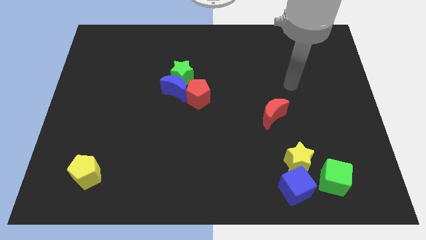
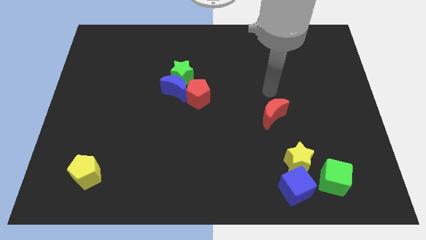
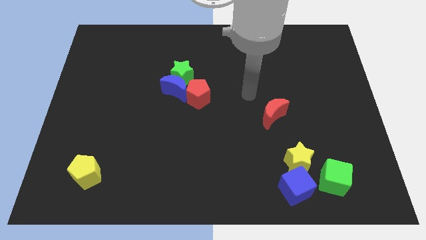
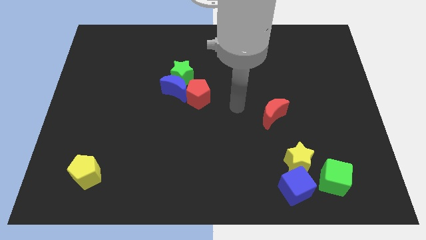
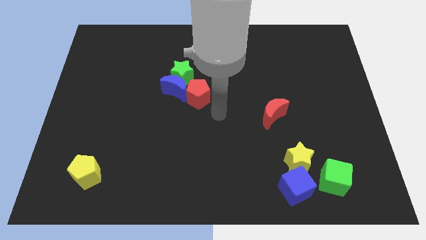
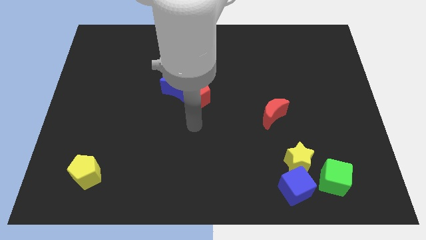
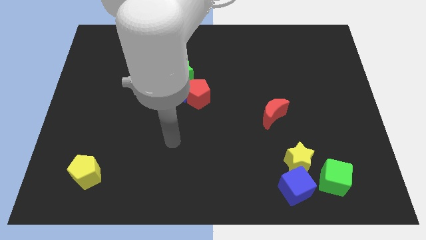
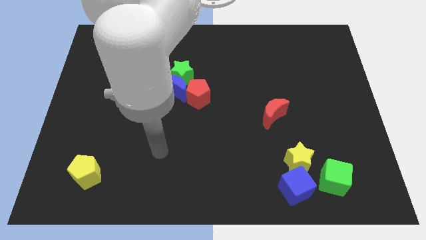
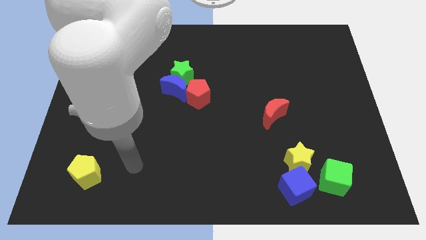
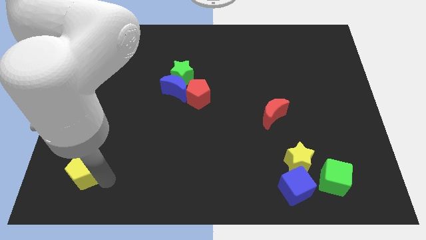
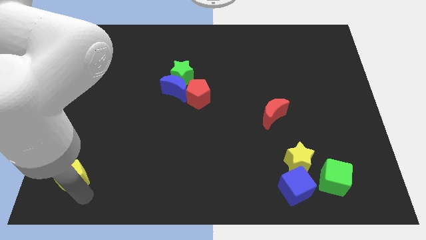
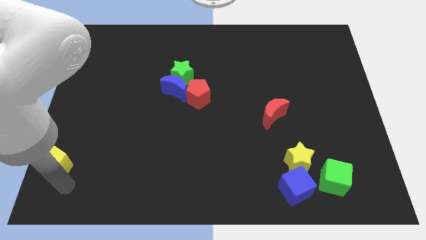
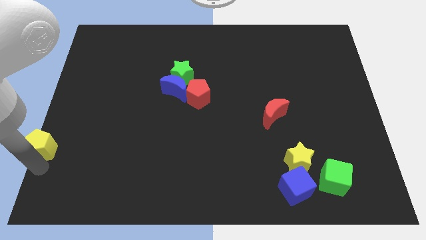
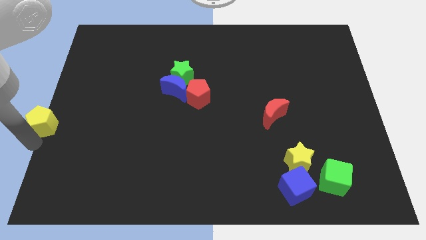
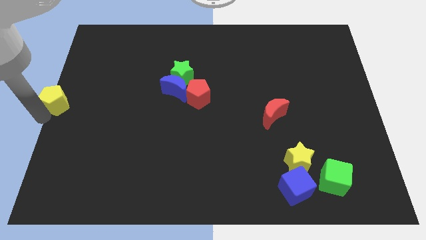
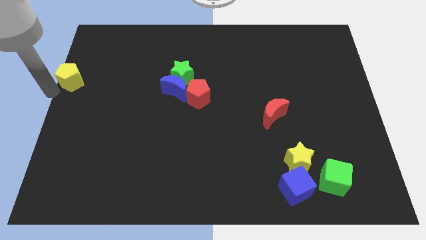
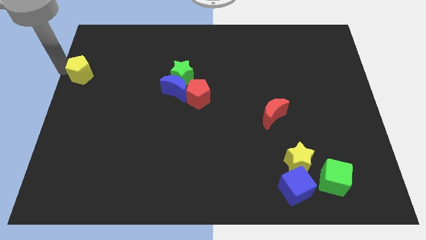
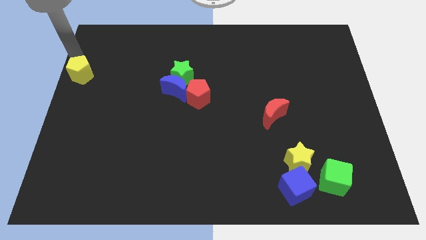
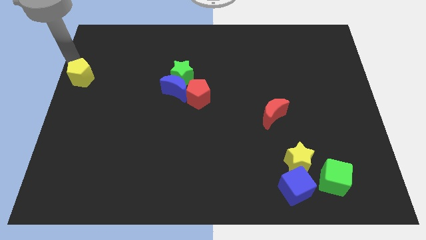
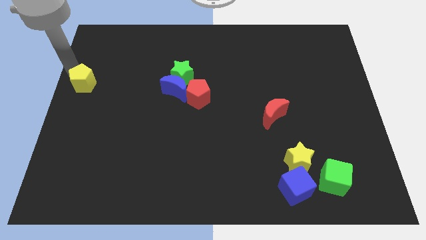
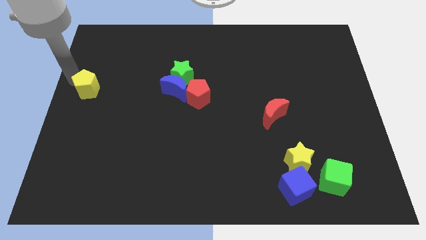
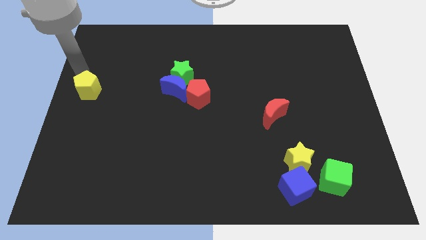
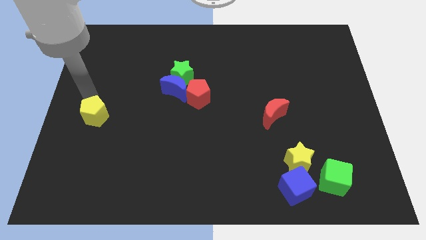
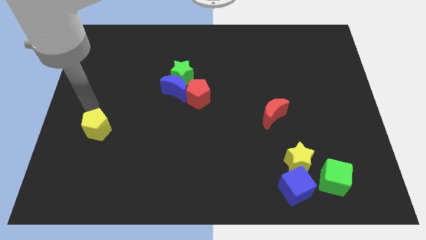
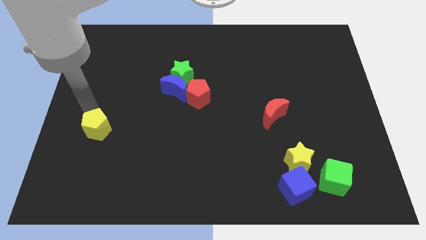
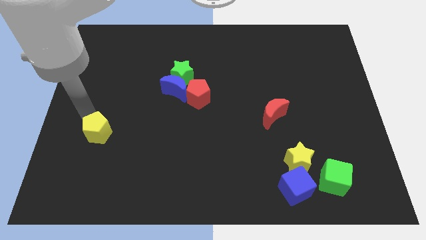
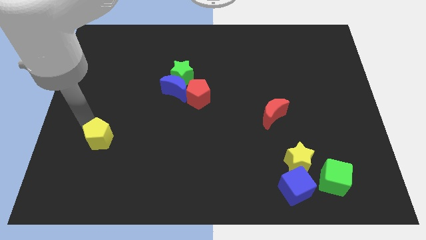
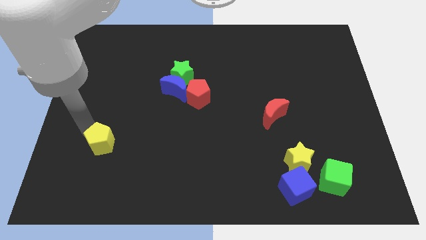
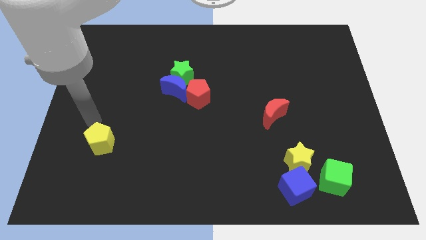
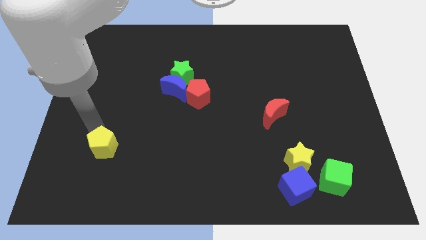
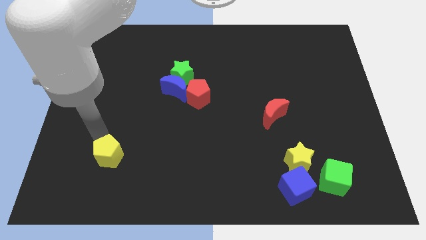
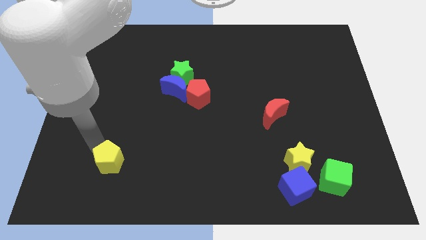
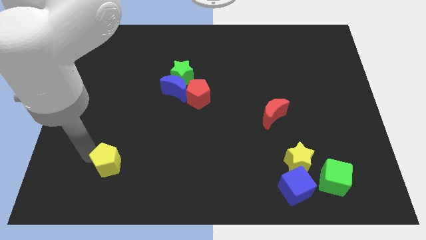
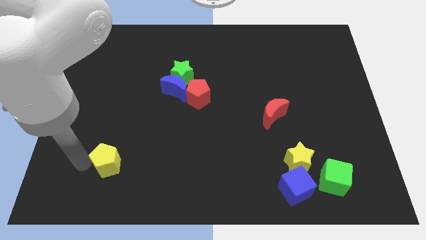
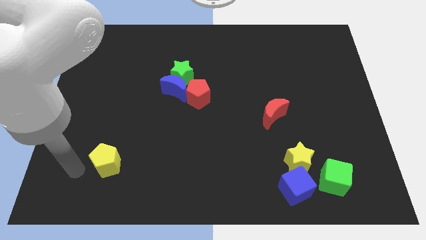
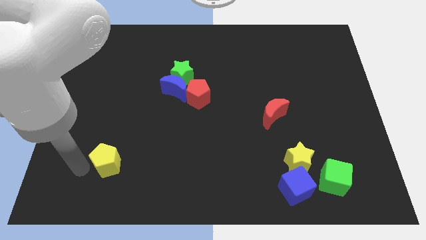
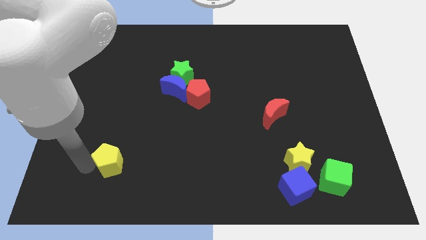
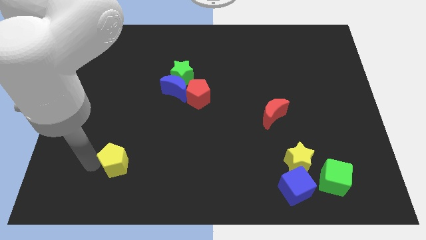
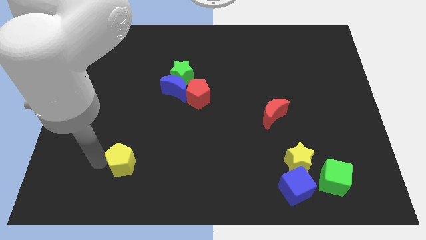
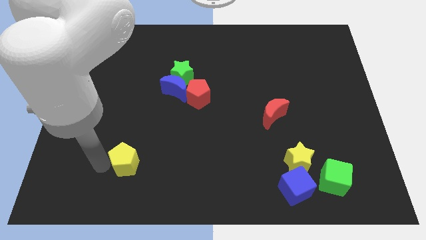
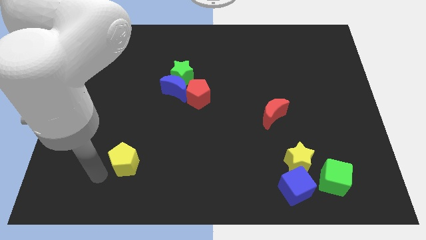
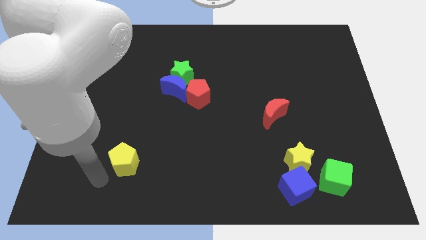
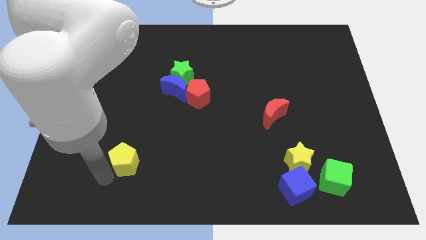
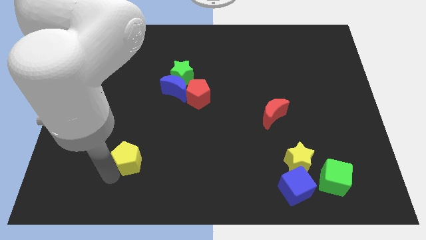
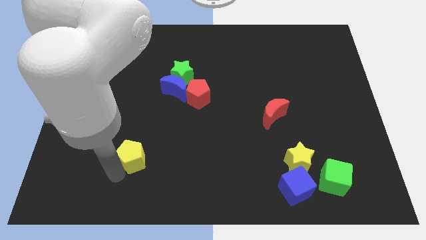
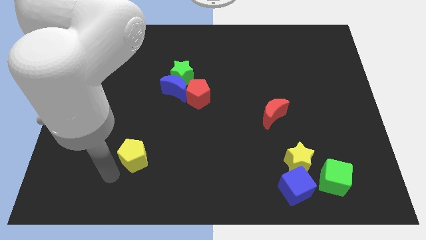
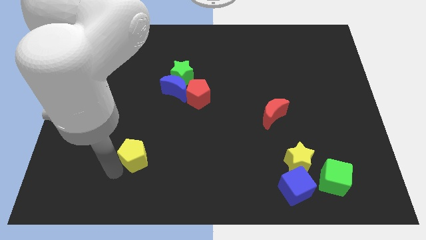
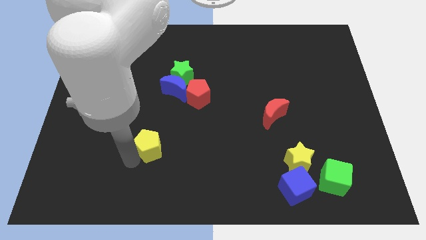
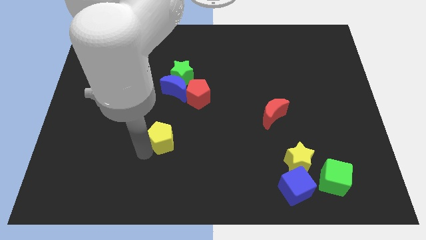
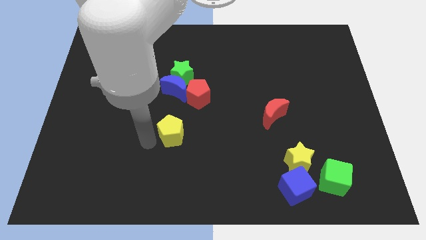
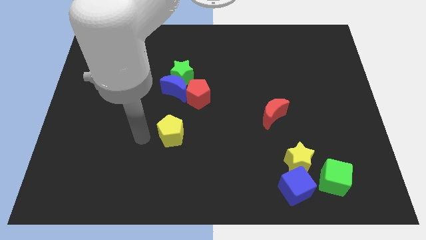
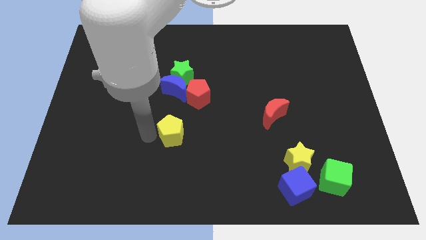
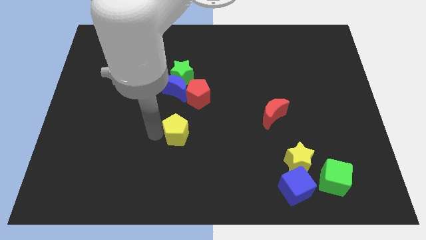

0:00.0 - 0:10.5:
put the yellow pentagon below the red pentagon

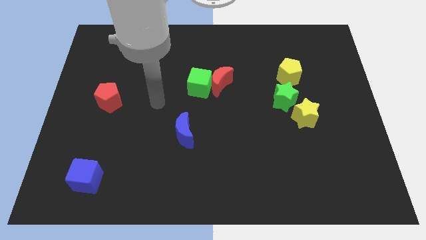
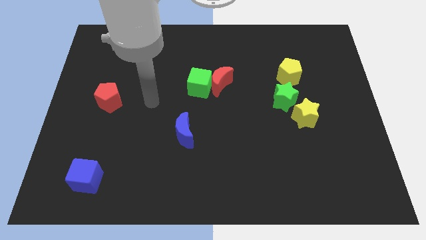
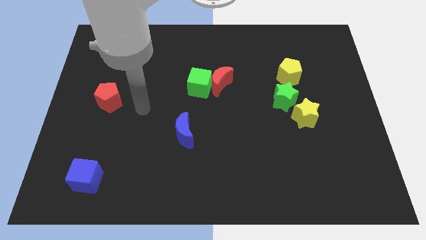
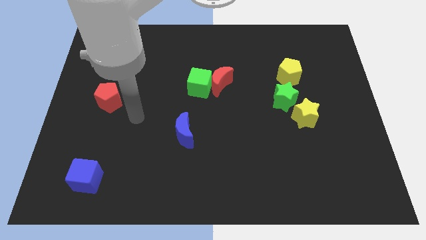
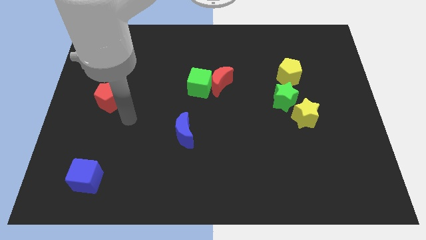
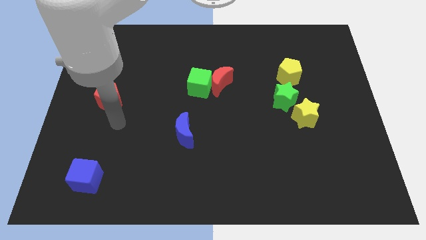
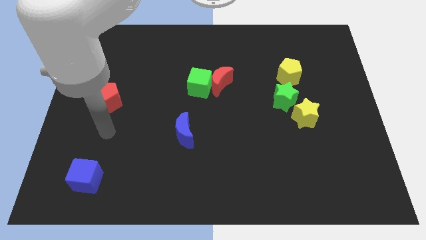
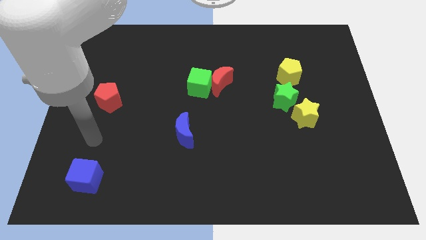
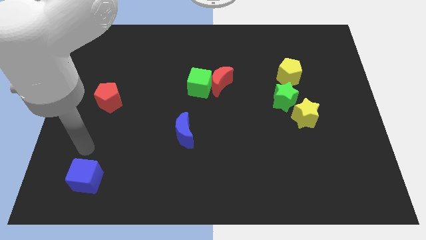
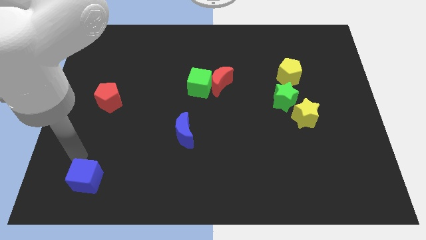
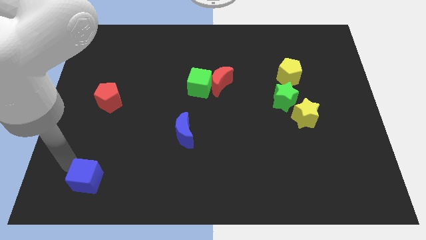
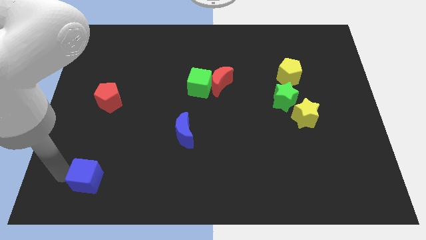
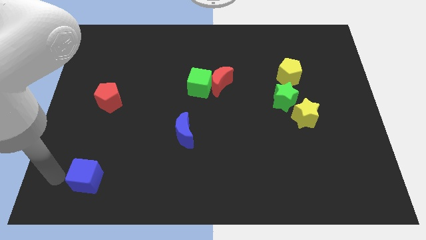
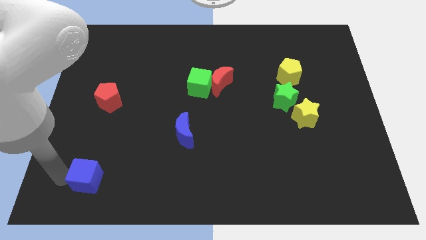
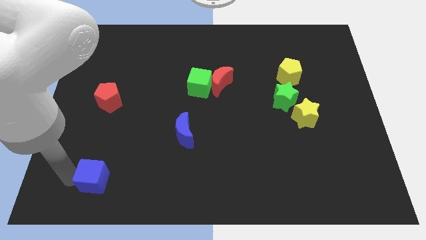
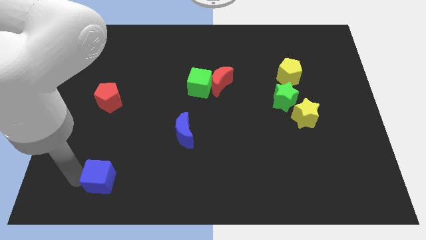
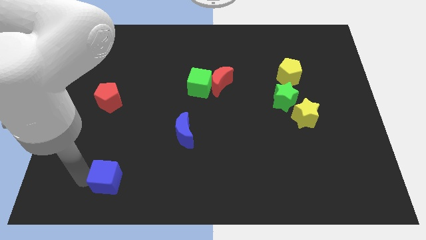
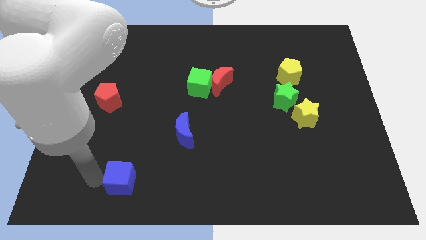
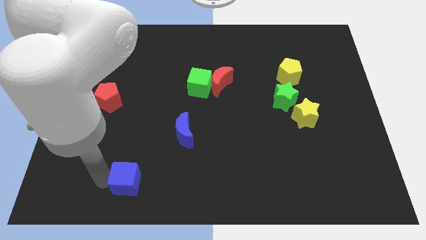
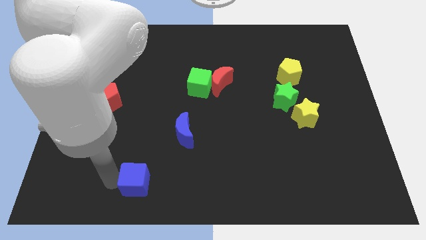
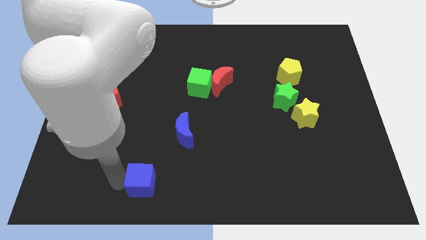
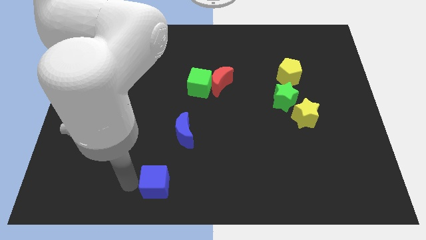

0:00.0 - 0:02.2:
put the blue cube to the bottom of the blue moon
